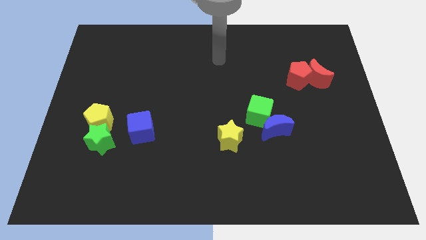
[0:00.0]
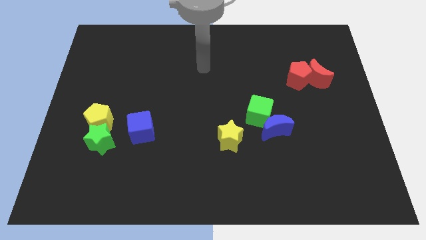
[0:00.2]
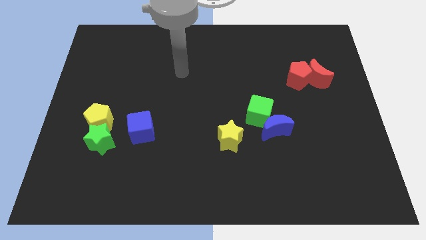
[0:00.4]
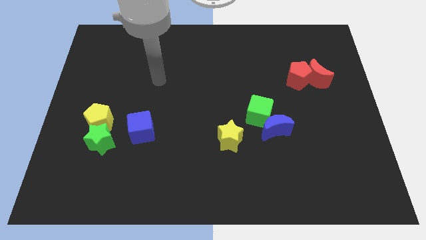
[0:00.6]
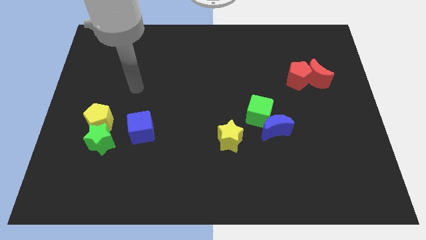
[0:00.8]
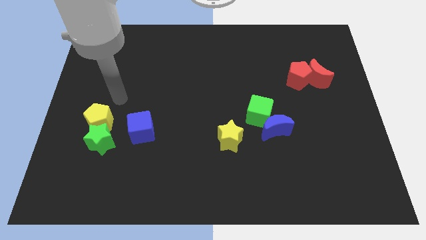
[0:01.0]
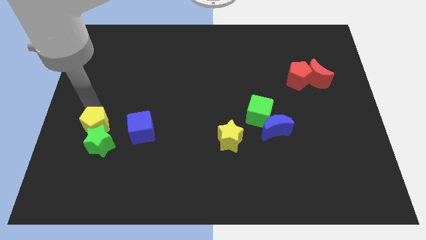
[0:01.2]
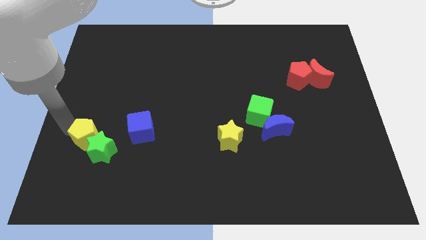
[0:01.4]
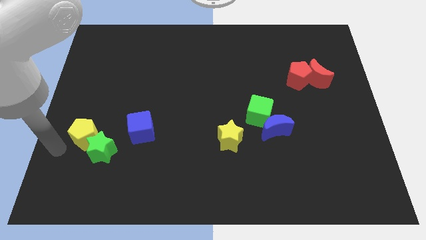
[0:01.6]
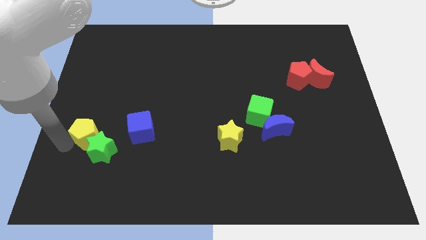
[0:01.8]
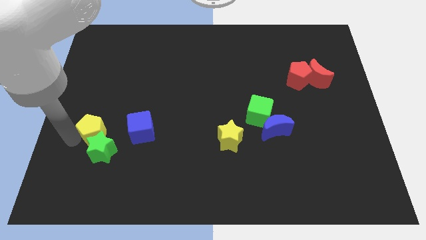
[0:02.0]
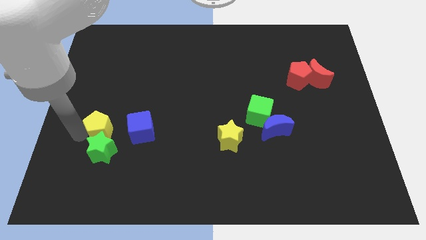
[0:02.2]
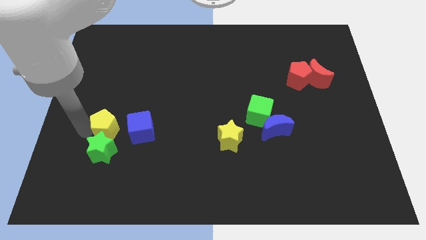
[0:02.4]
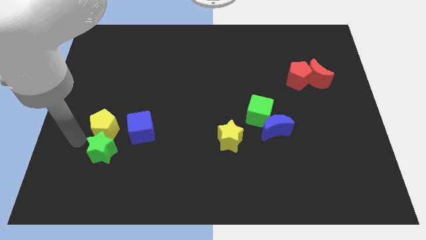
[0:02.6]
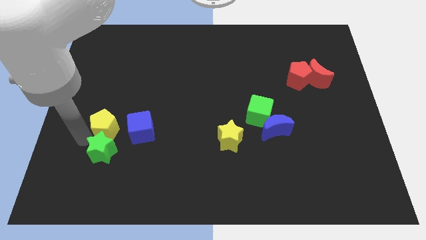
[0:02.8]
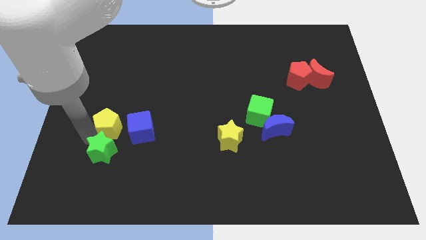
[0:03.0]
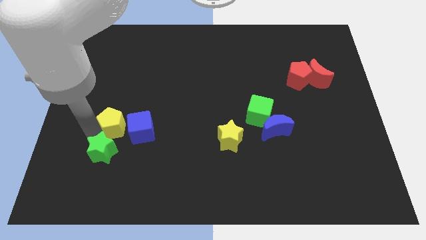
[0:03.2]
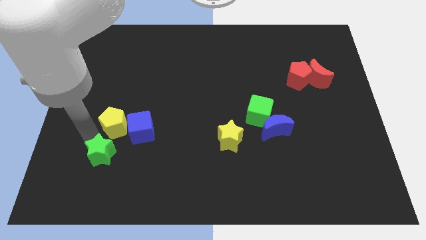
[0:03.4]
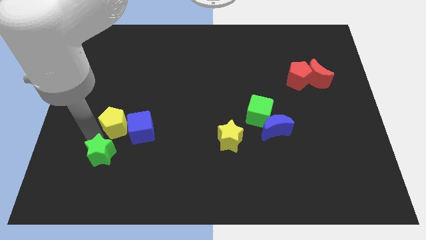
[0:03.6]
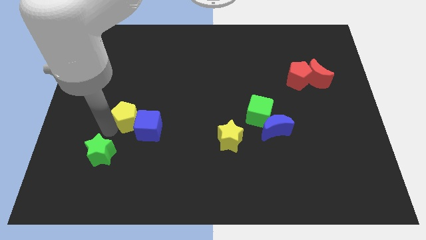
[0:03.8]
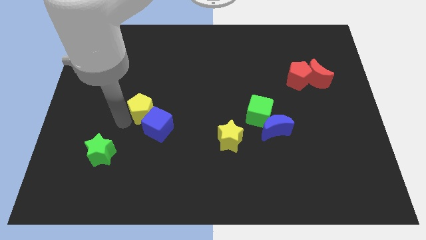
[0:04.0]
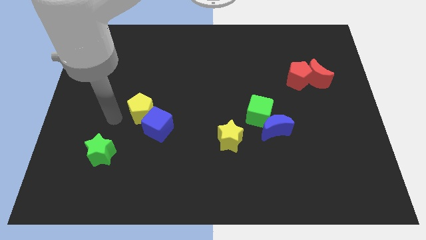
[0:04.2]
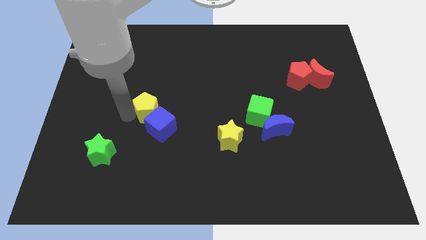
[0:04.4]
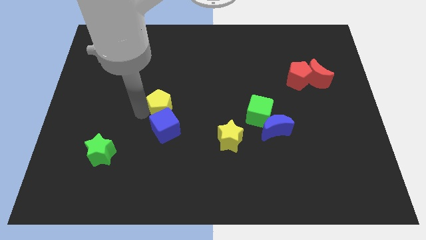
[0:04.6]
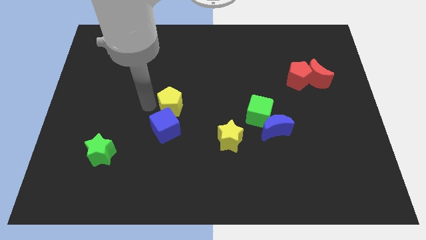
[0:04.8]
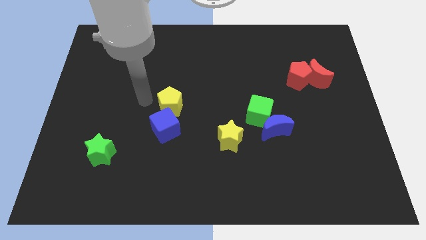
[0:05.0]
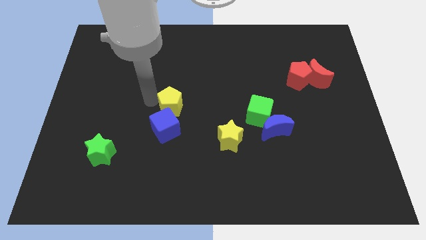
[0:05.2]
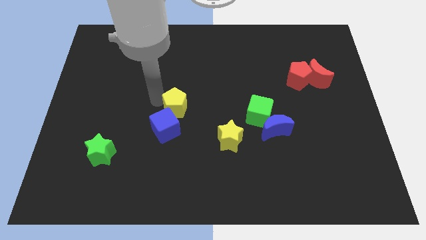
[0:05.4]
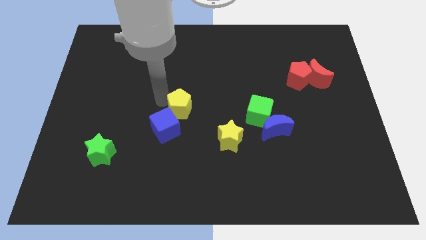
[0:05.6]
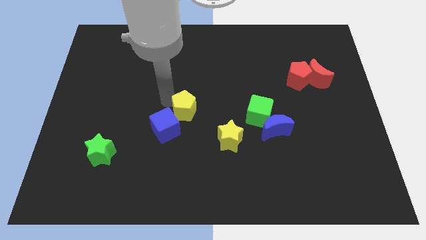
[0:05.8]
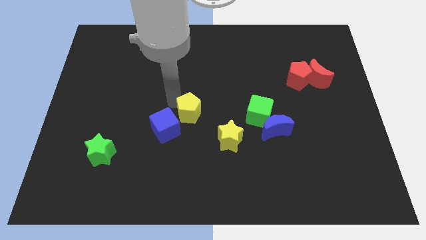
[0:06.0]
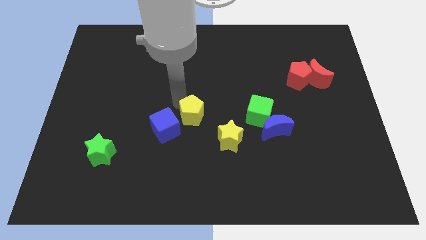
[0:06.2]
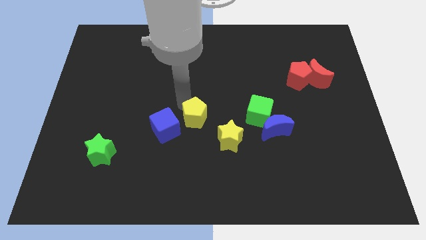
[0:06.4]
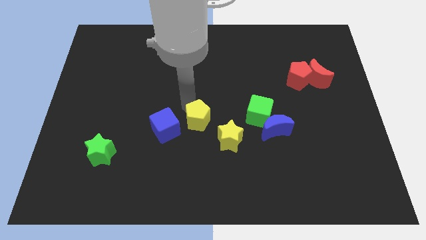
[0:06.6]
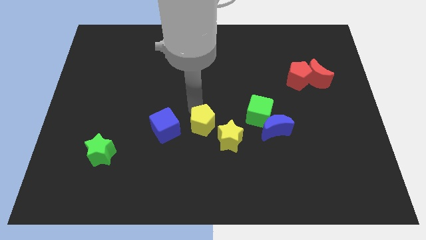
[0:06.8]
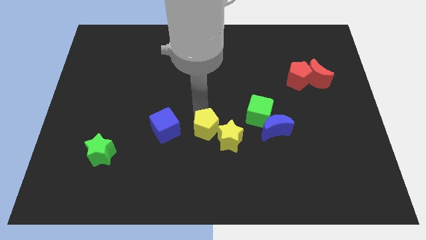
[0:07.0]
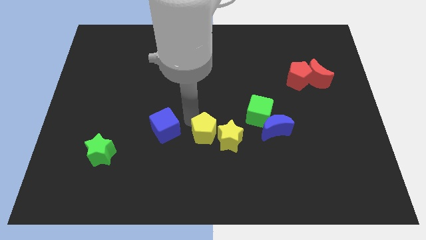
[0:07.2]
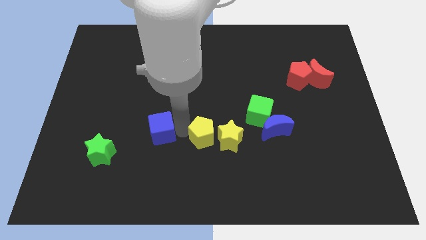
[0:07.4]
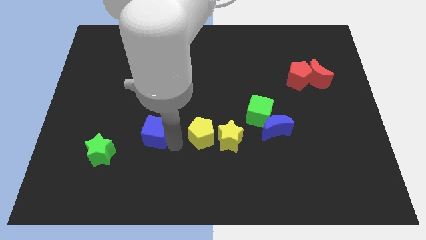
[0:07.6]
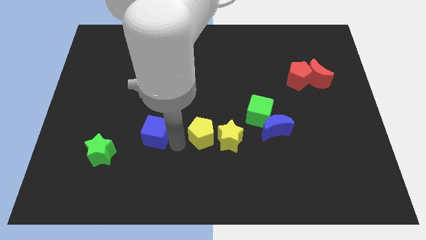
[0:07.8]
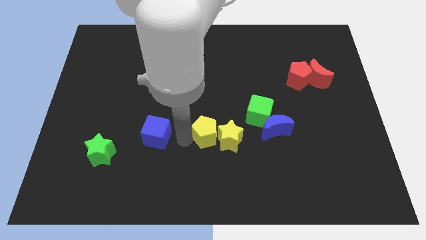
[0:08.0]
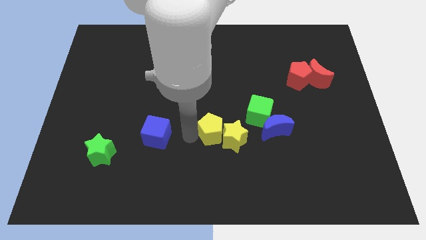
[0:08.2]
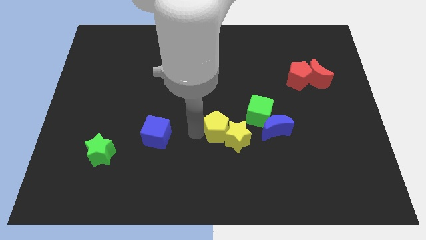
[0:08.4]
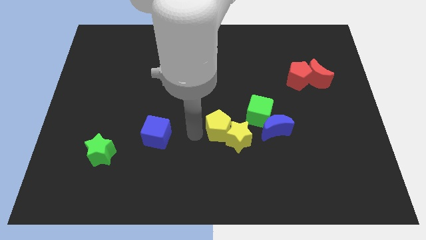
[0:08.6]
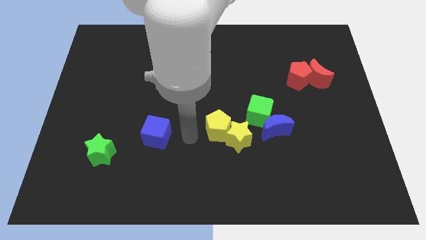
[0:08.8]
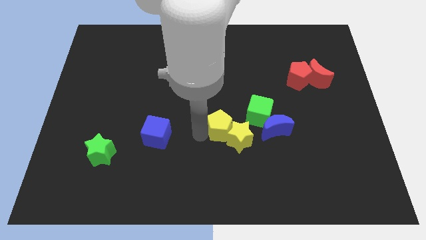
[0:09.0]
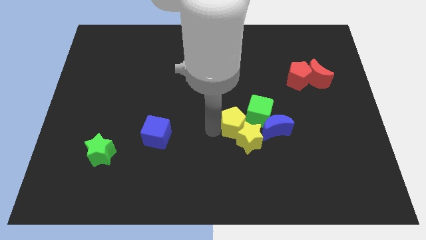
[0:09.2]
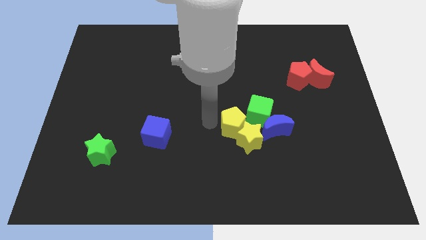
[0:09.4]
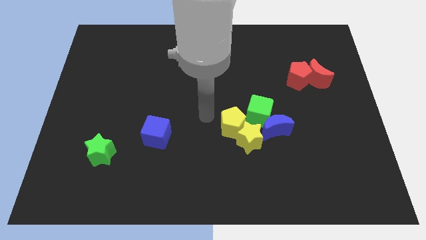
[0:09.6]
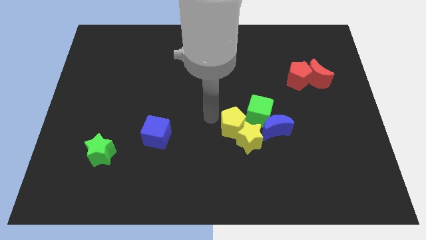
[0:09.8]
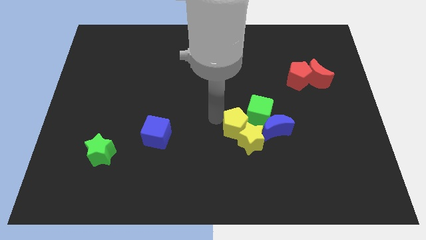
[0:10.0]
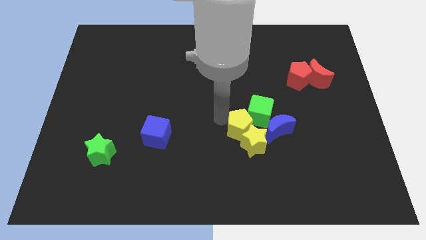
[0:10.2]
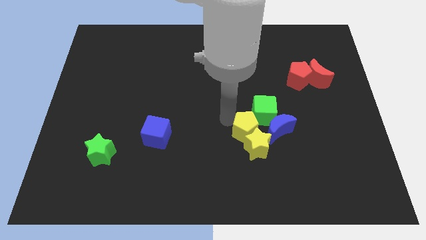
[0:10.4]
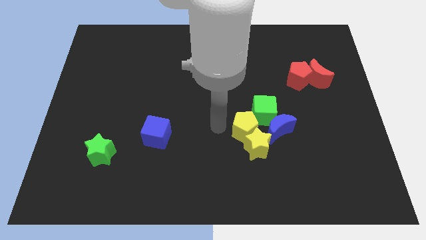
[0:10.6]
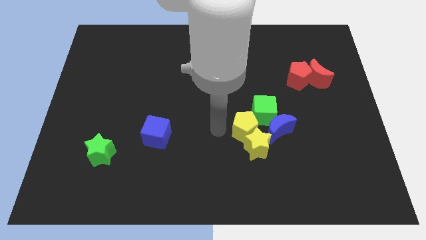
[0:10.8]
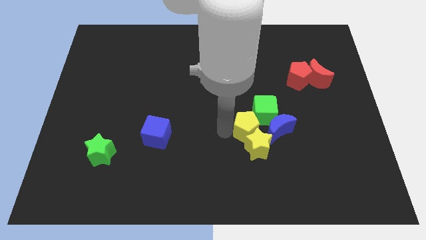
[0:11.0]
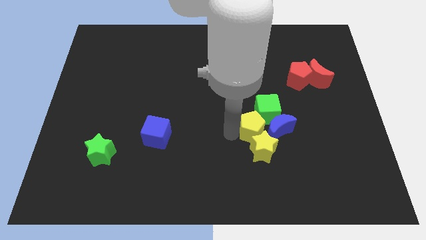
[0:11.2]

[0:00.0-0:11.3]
put the yellow pentagon next to the blue moon

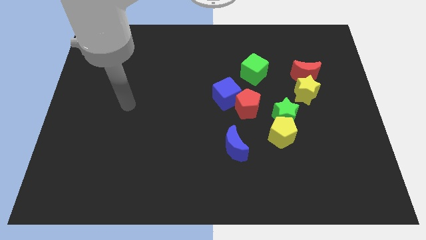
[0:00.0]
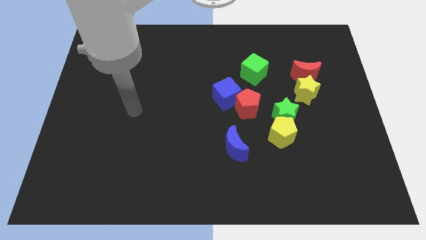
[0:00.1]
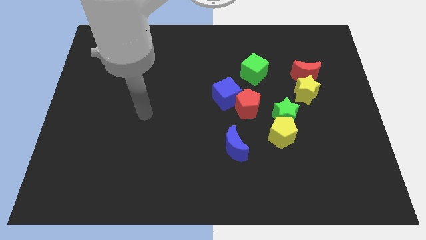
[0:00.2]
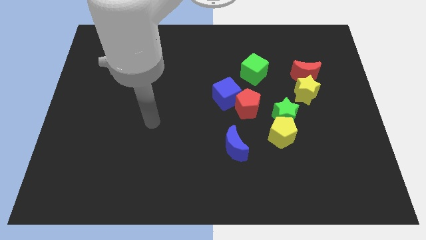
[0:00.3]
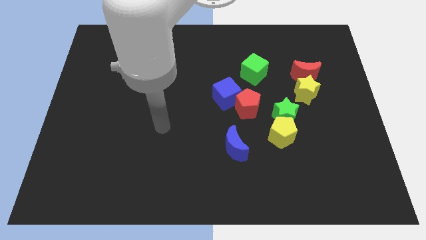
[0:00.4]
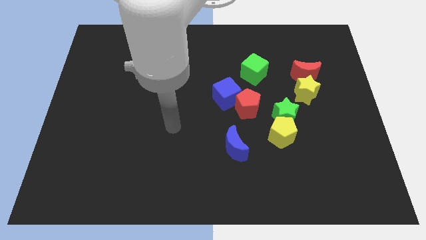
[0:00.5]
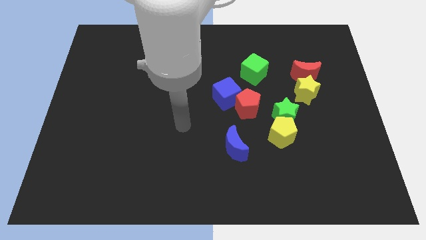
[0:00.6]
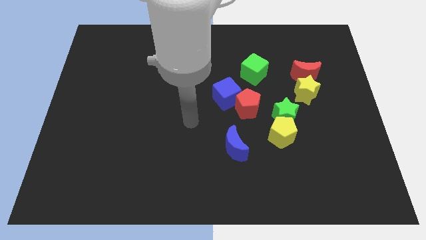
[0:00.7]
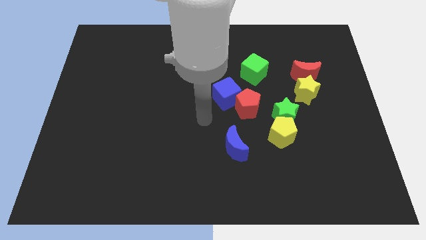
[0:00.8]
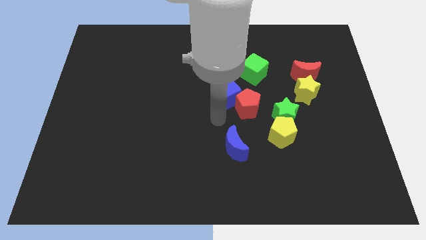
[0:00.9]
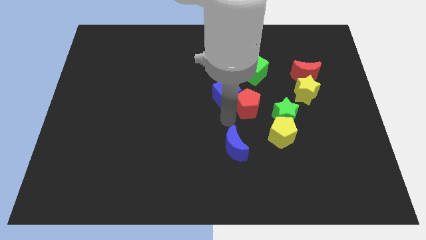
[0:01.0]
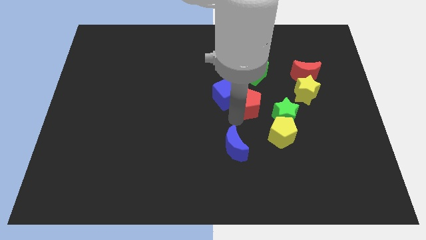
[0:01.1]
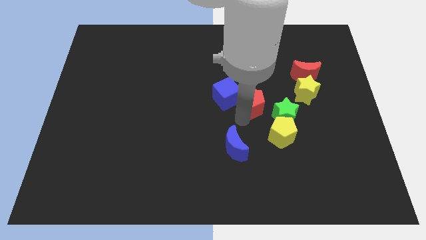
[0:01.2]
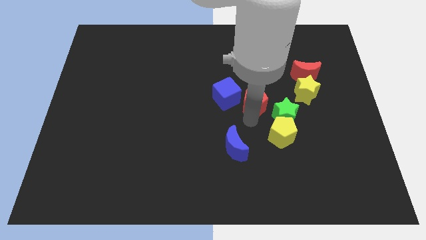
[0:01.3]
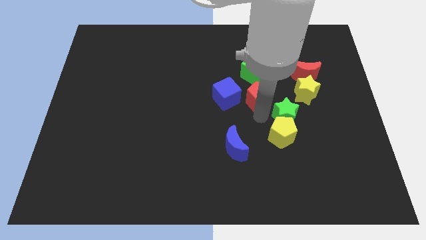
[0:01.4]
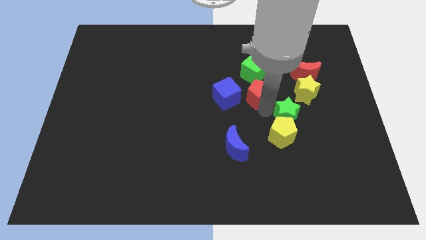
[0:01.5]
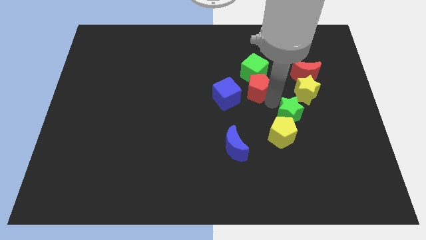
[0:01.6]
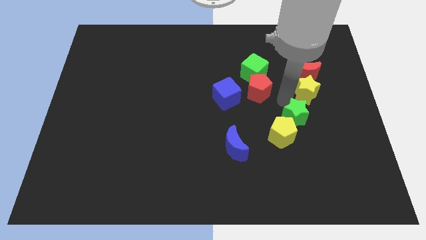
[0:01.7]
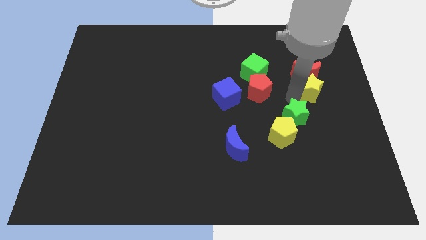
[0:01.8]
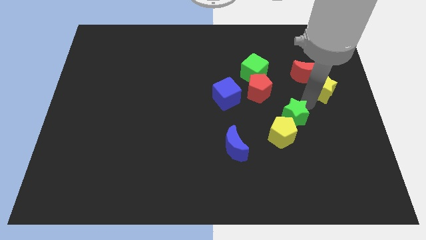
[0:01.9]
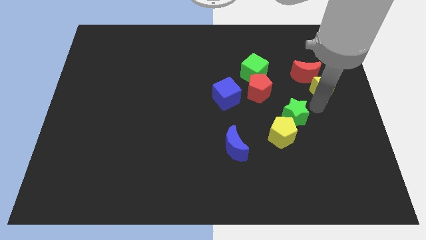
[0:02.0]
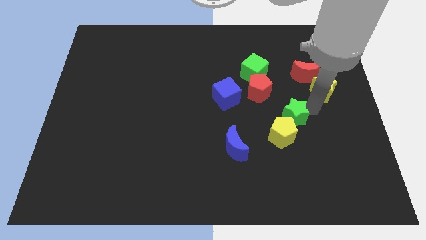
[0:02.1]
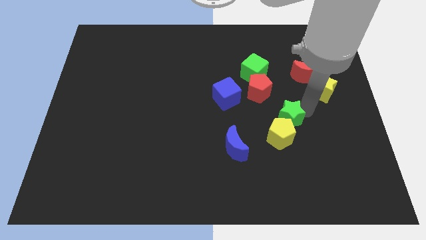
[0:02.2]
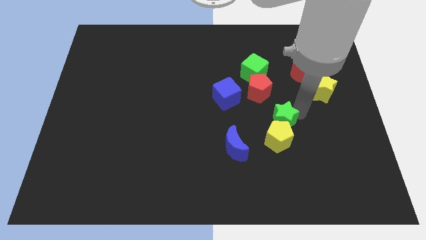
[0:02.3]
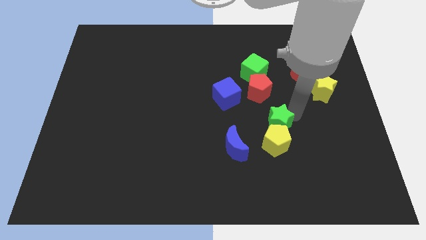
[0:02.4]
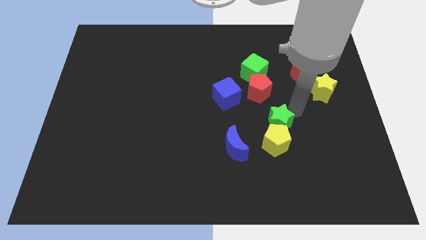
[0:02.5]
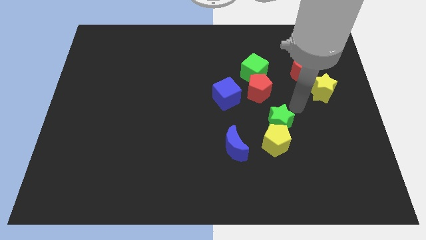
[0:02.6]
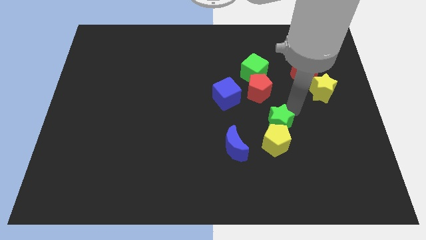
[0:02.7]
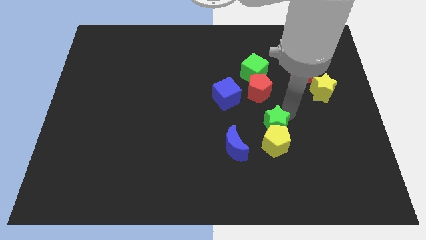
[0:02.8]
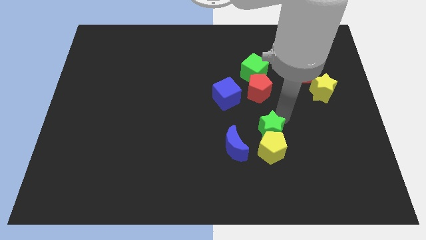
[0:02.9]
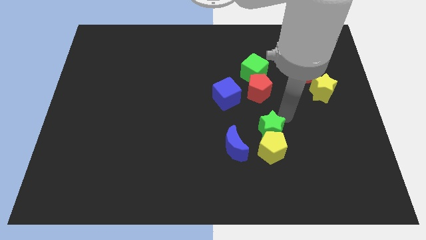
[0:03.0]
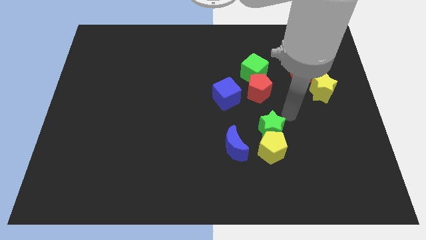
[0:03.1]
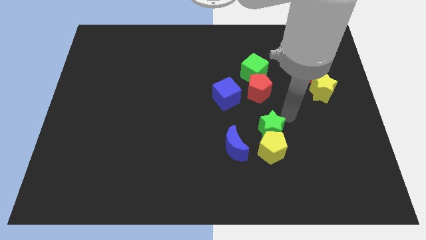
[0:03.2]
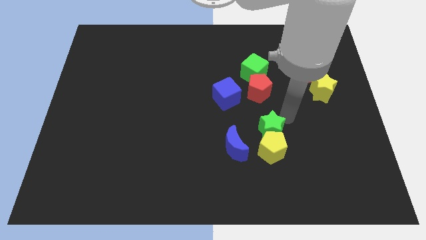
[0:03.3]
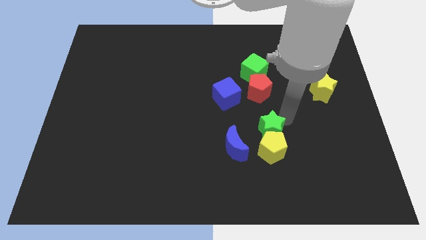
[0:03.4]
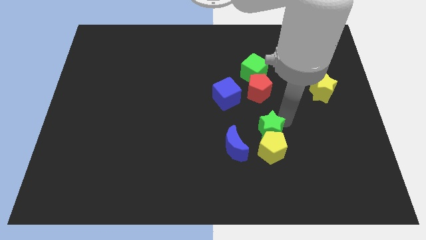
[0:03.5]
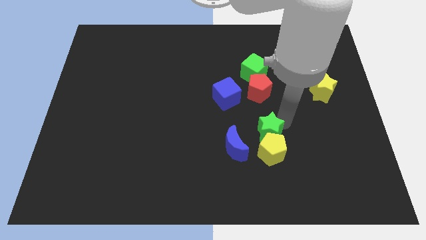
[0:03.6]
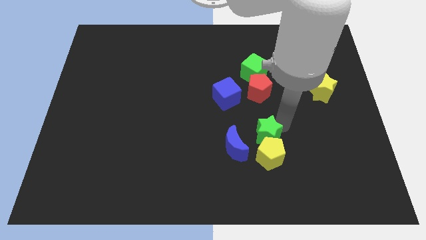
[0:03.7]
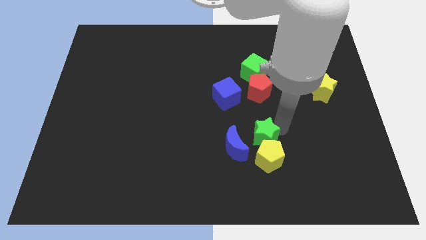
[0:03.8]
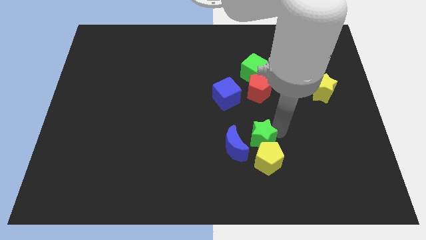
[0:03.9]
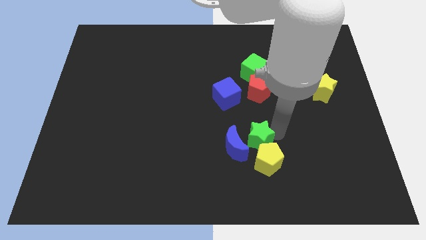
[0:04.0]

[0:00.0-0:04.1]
push the green star towards the blue moon
